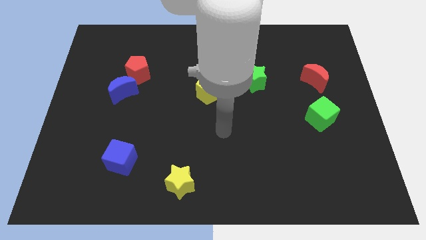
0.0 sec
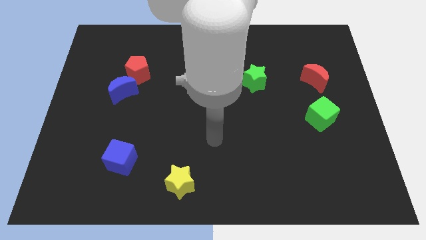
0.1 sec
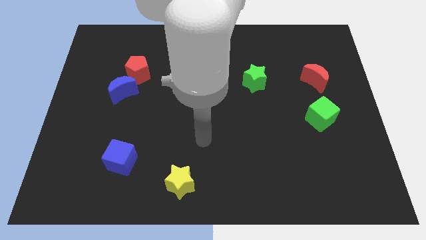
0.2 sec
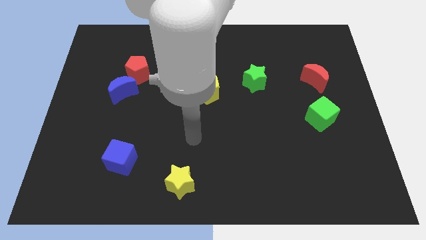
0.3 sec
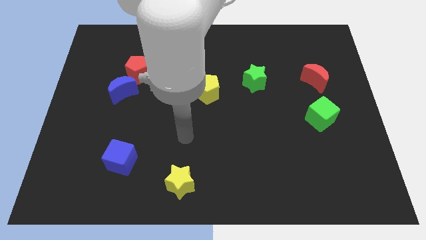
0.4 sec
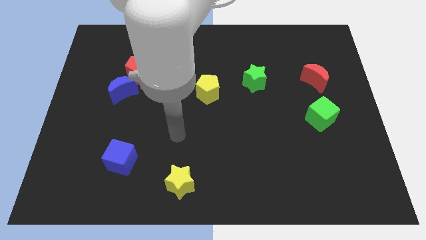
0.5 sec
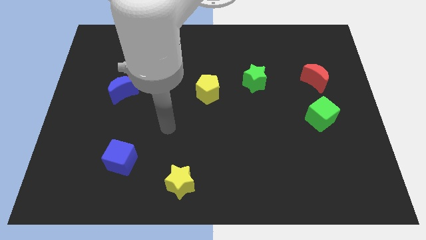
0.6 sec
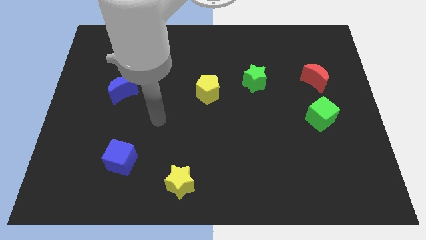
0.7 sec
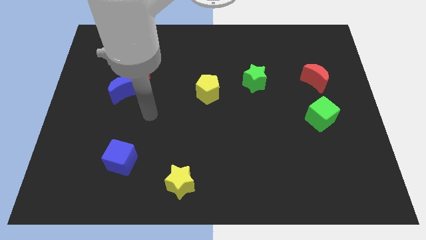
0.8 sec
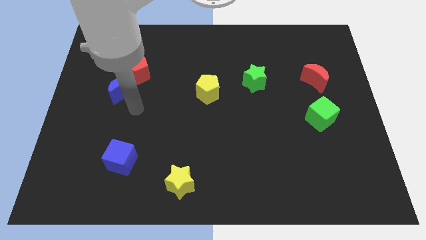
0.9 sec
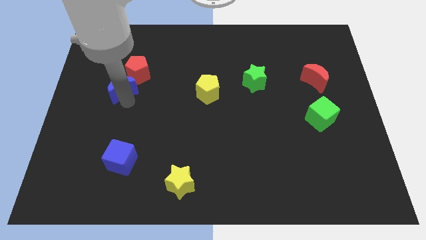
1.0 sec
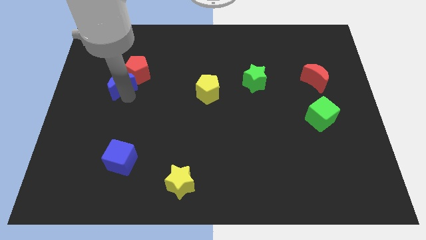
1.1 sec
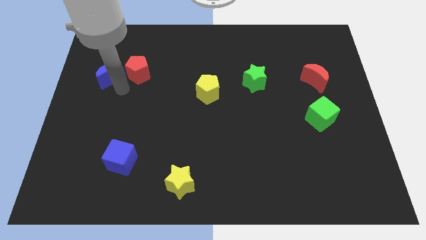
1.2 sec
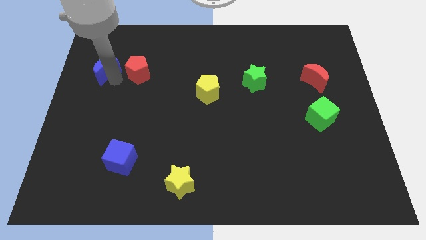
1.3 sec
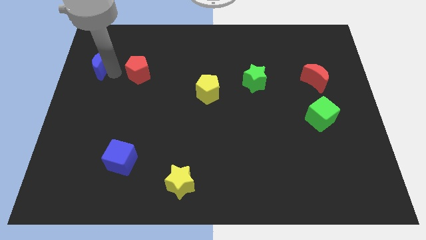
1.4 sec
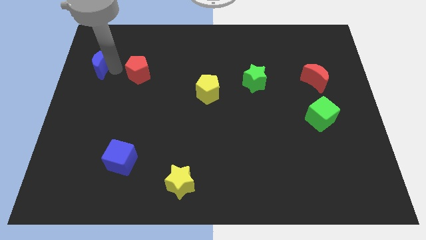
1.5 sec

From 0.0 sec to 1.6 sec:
pull the red pentagon apart from the blue moon

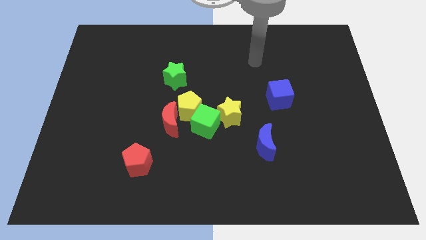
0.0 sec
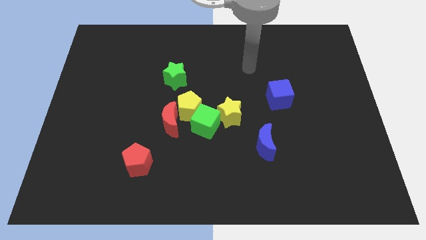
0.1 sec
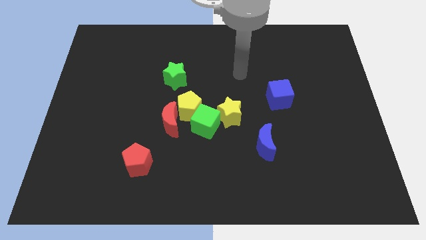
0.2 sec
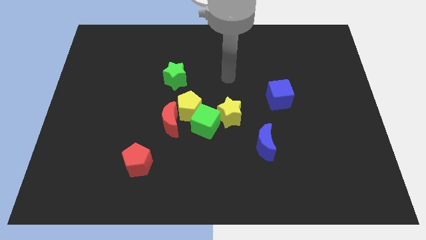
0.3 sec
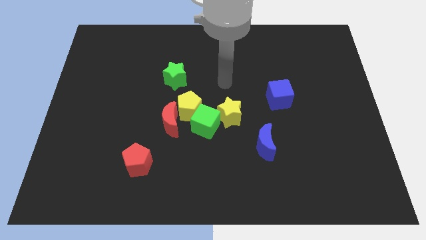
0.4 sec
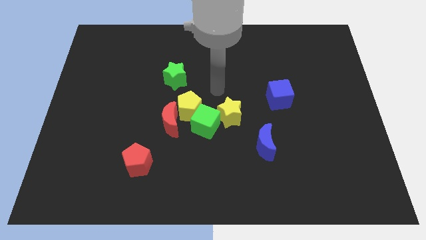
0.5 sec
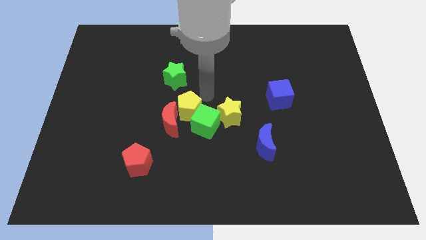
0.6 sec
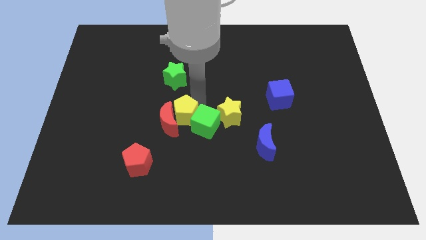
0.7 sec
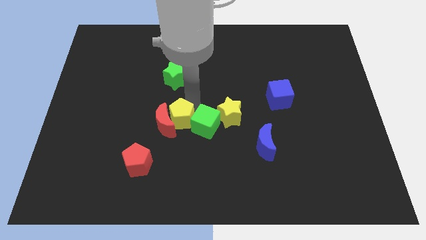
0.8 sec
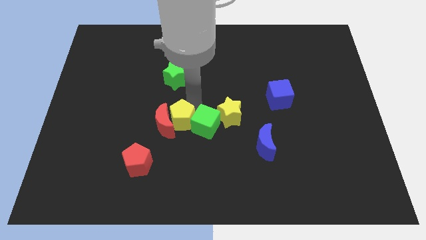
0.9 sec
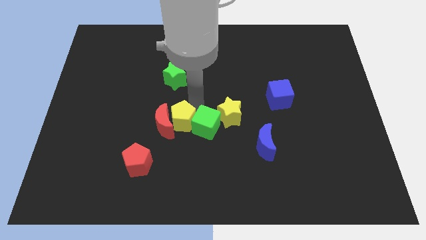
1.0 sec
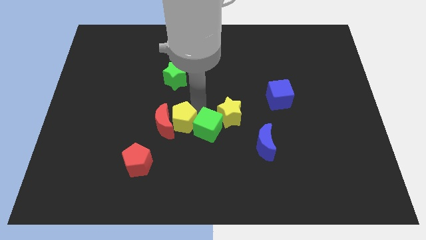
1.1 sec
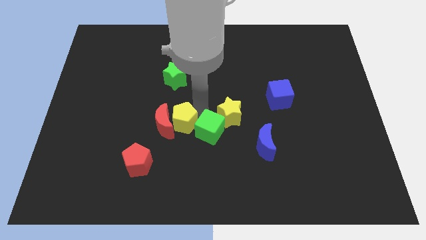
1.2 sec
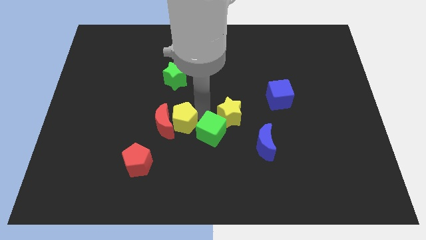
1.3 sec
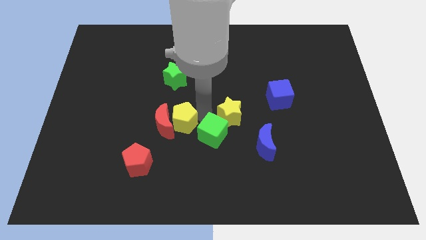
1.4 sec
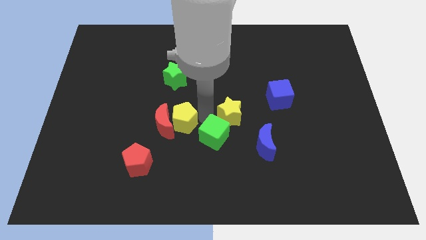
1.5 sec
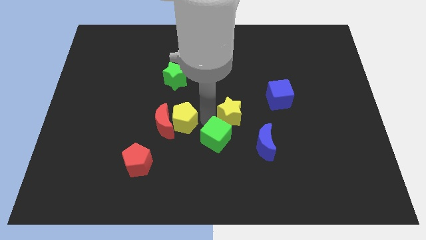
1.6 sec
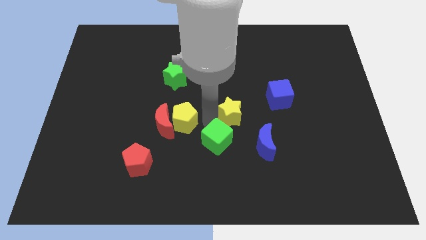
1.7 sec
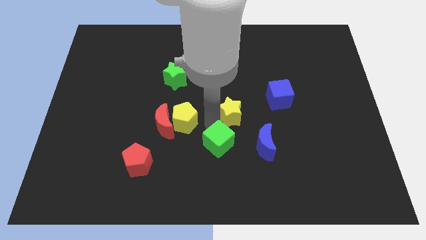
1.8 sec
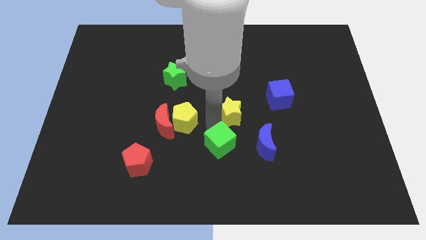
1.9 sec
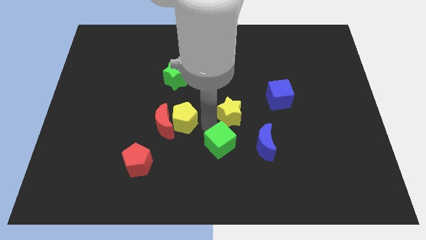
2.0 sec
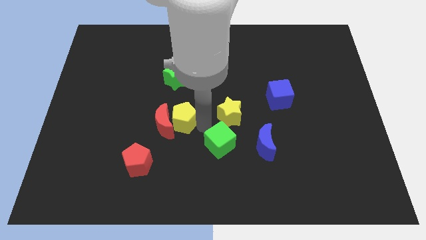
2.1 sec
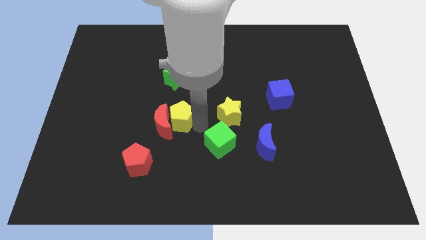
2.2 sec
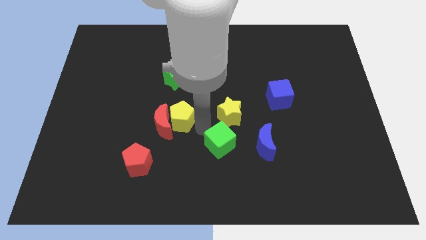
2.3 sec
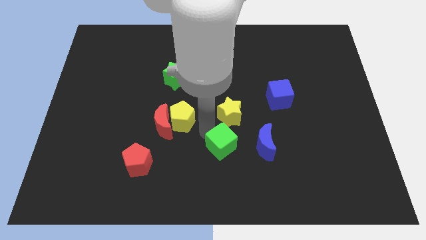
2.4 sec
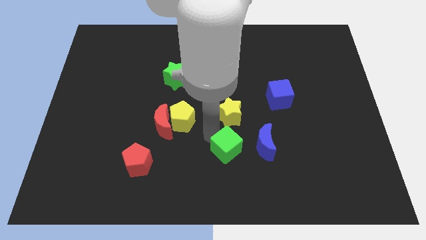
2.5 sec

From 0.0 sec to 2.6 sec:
pull the green cube apart from the yellow pentagon, yellow star, and red moon

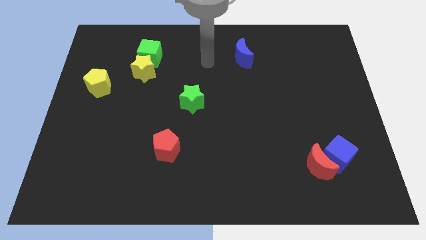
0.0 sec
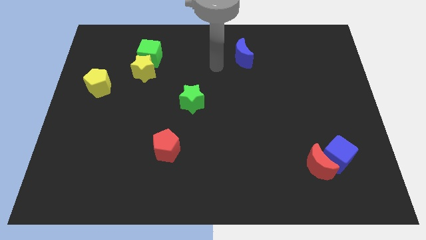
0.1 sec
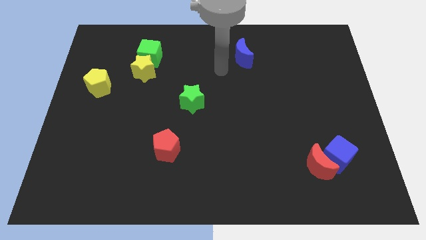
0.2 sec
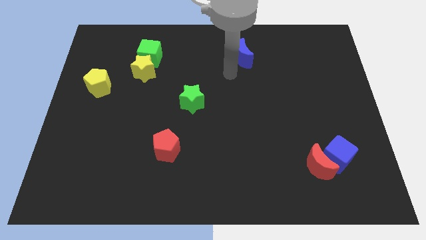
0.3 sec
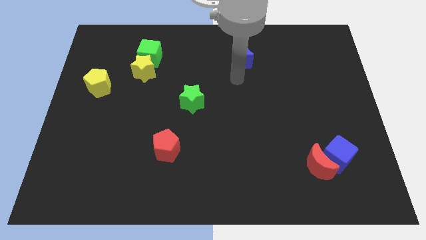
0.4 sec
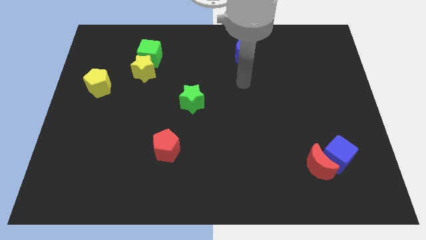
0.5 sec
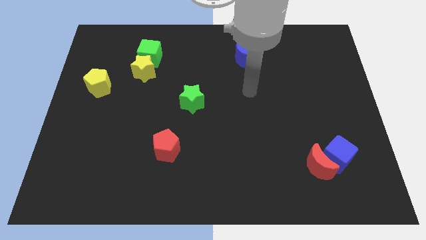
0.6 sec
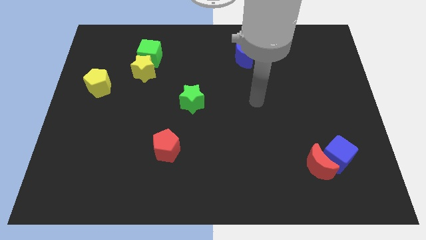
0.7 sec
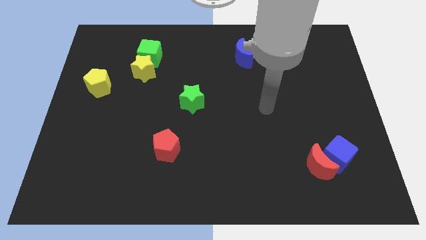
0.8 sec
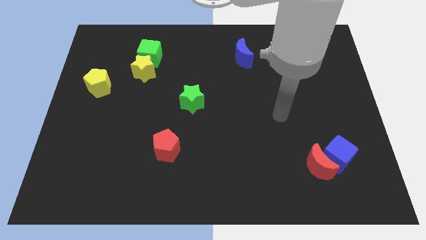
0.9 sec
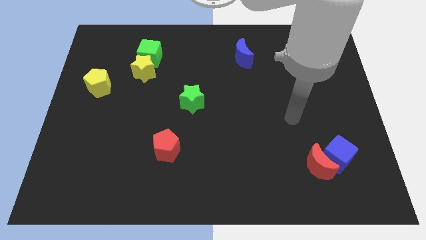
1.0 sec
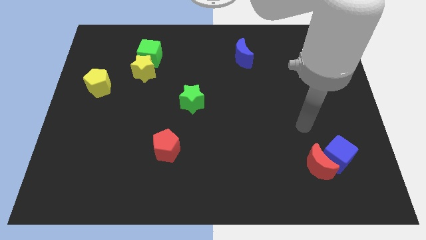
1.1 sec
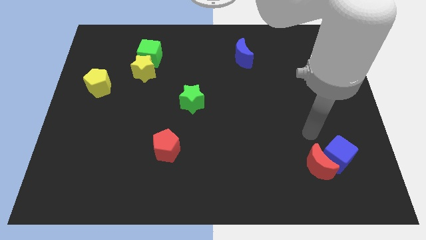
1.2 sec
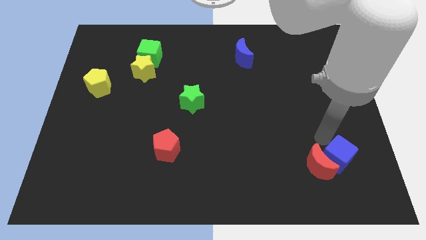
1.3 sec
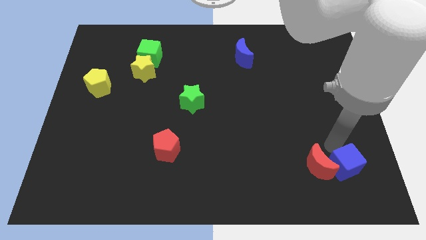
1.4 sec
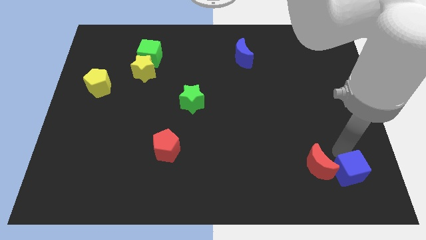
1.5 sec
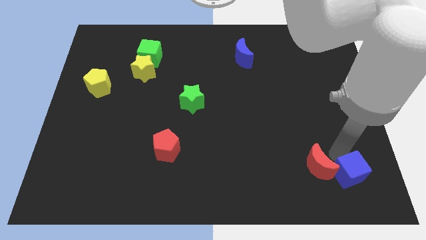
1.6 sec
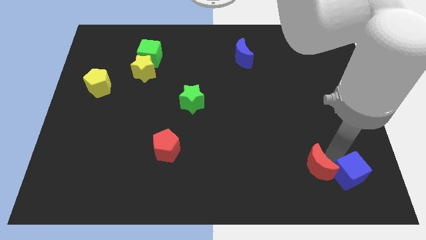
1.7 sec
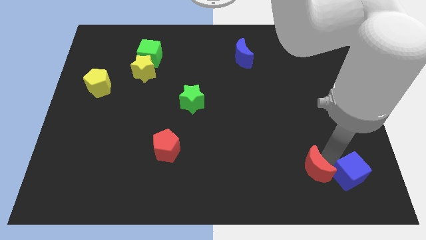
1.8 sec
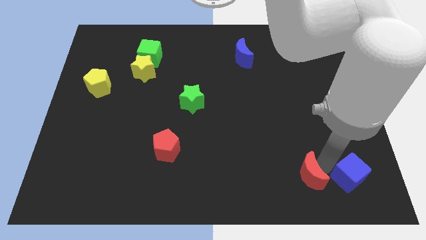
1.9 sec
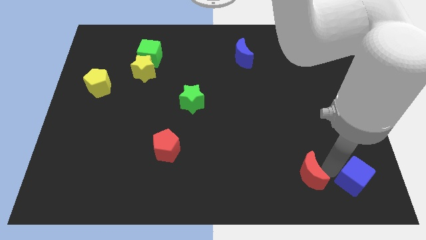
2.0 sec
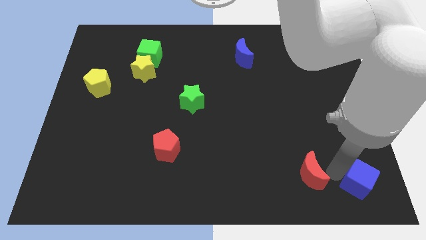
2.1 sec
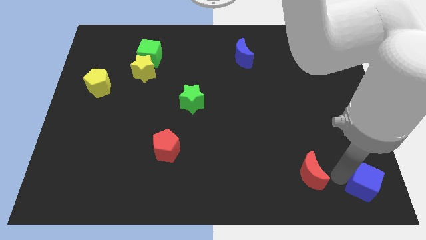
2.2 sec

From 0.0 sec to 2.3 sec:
pull the red moon apart from the blue cube

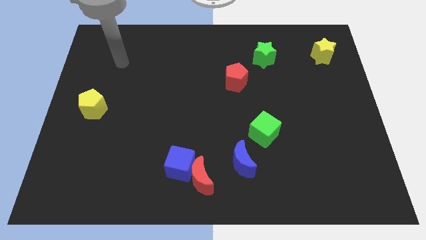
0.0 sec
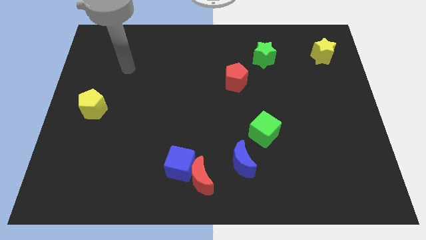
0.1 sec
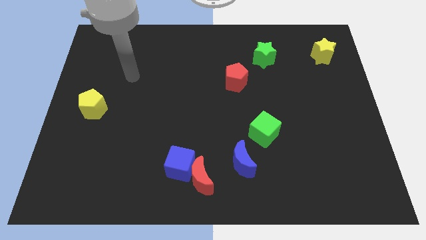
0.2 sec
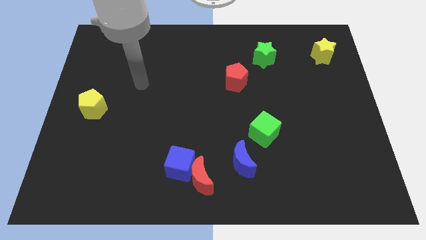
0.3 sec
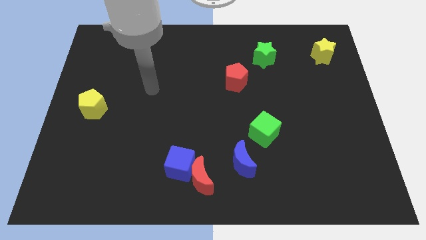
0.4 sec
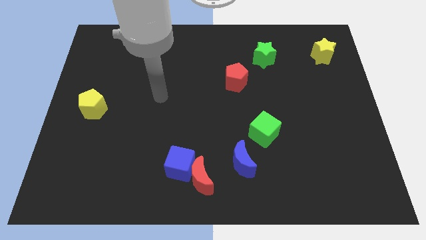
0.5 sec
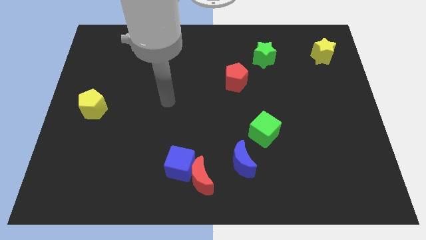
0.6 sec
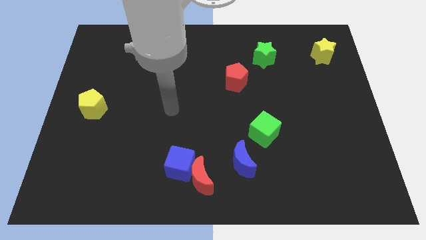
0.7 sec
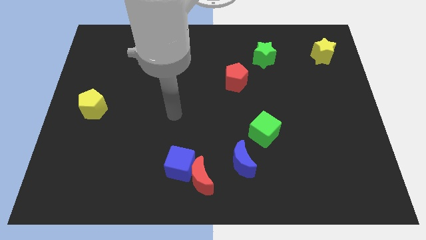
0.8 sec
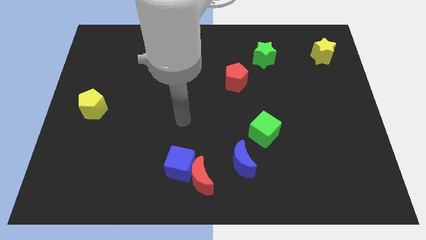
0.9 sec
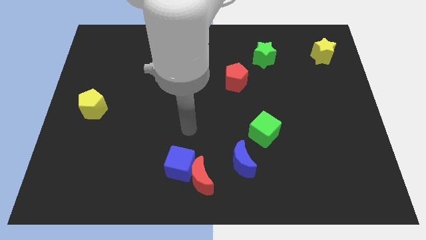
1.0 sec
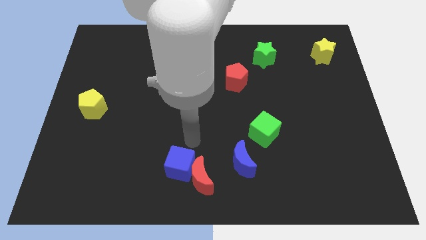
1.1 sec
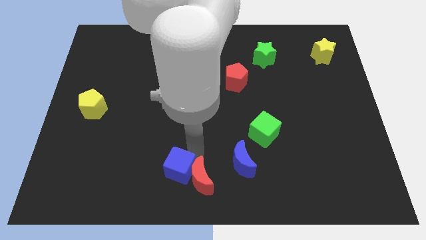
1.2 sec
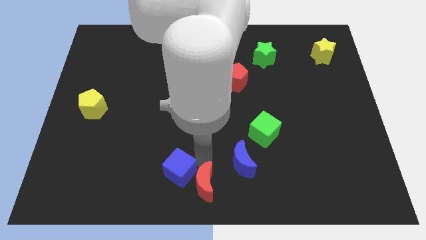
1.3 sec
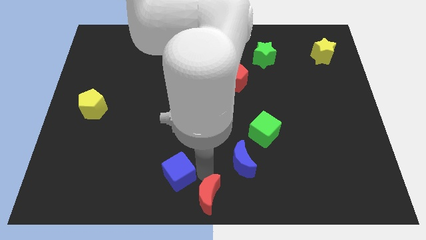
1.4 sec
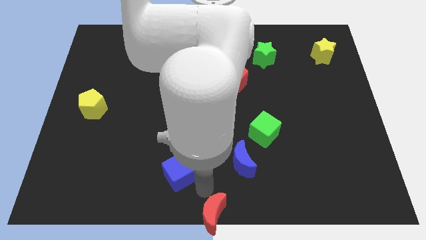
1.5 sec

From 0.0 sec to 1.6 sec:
move the blue cube away from the red moon

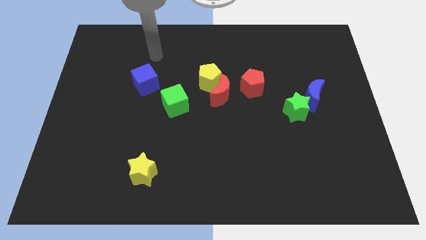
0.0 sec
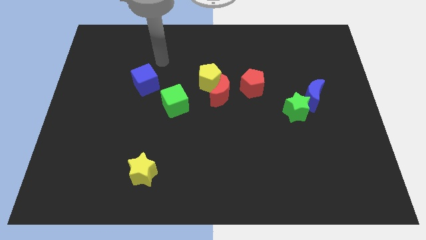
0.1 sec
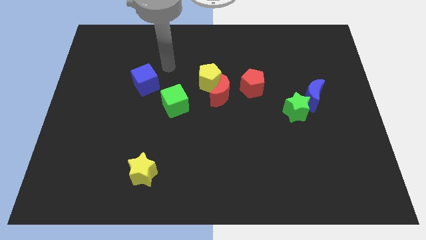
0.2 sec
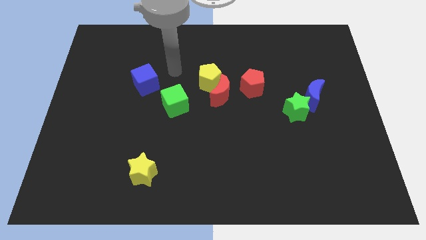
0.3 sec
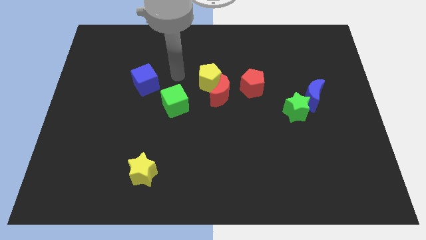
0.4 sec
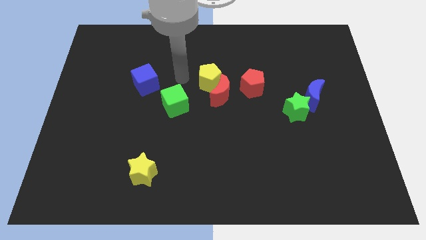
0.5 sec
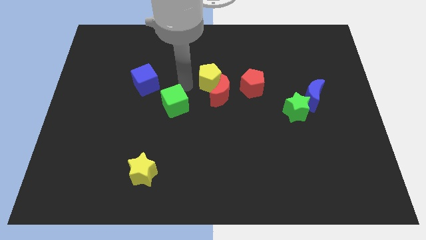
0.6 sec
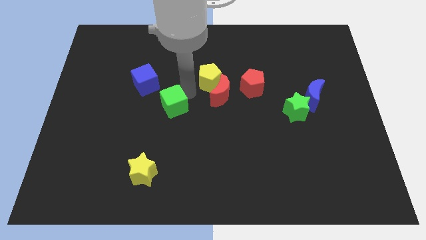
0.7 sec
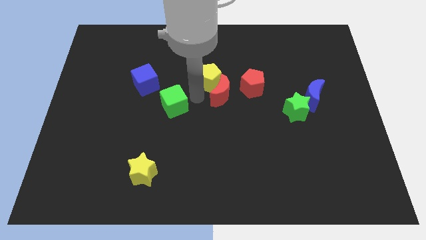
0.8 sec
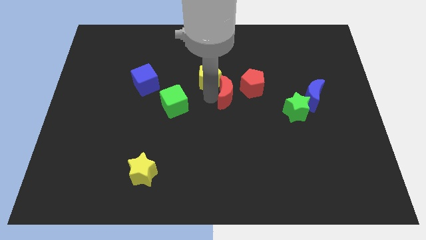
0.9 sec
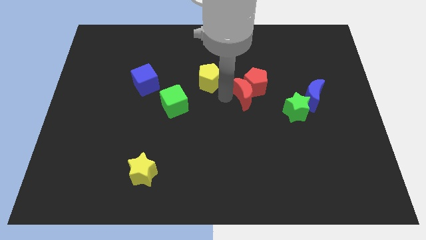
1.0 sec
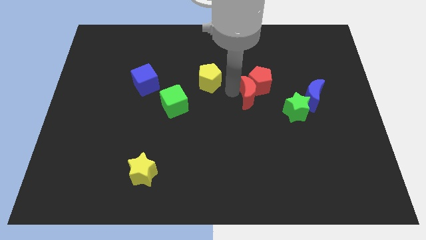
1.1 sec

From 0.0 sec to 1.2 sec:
pull the yellow pentagon apart from the red moon
